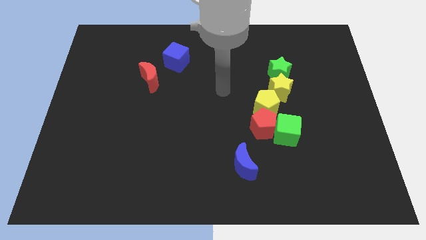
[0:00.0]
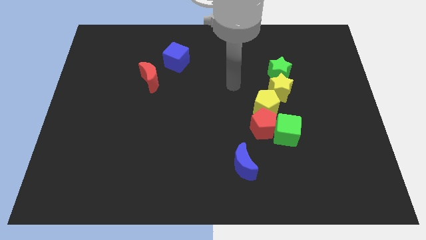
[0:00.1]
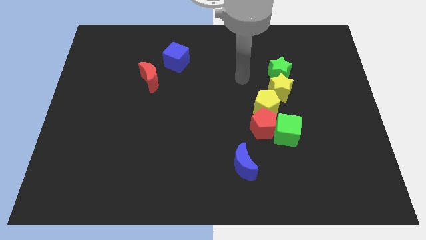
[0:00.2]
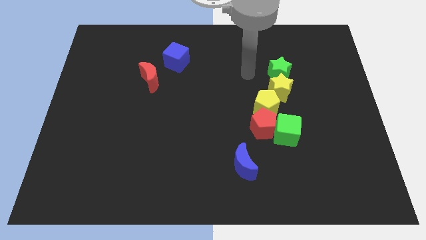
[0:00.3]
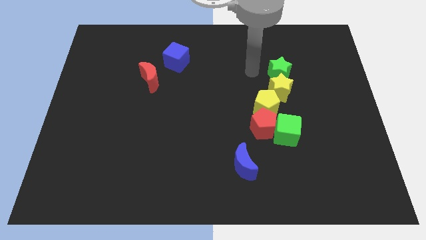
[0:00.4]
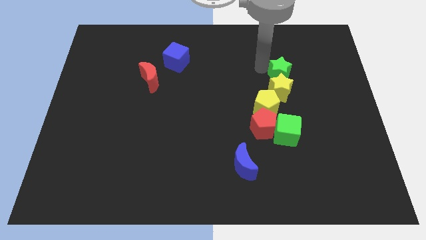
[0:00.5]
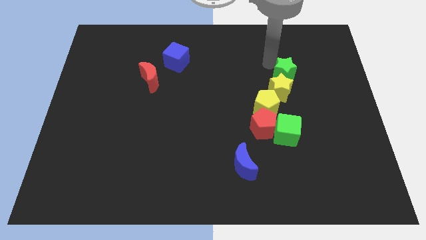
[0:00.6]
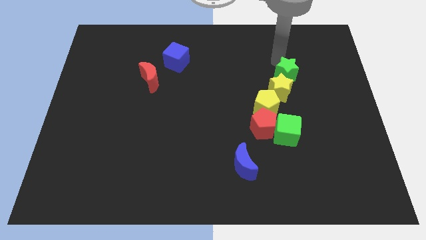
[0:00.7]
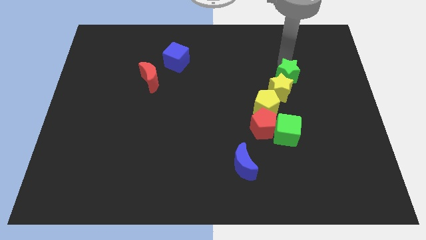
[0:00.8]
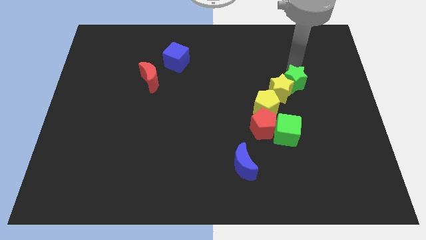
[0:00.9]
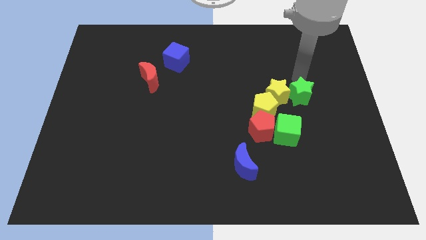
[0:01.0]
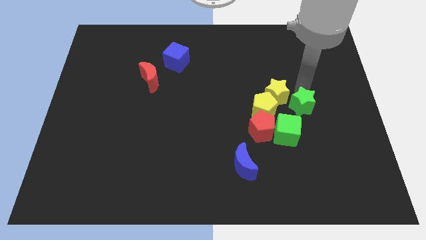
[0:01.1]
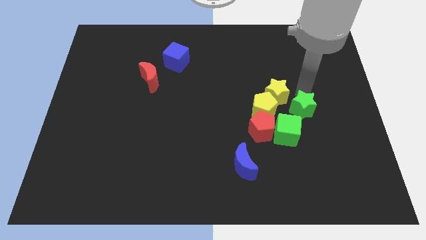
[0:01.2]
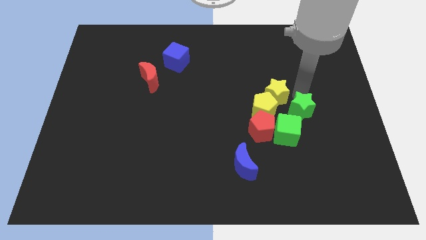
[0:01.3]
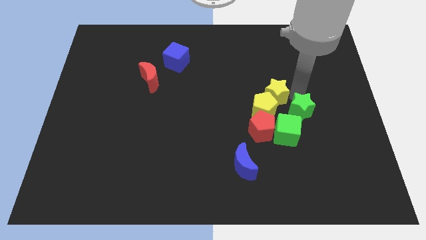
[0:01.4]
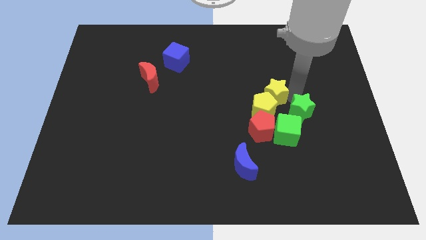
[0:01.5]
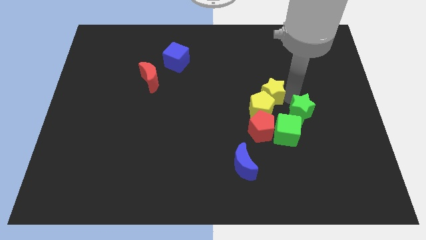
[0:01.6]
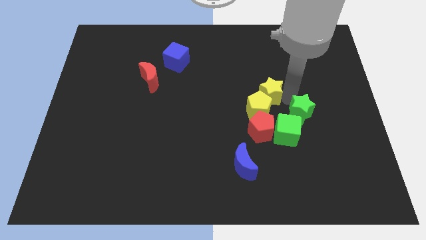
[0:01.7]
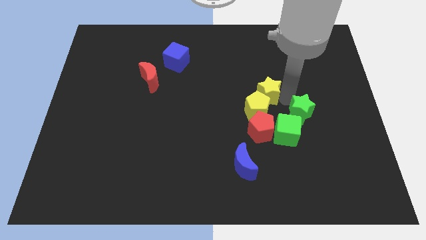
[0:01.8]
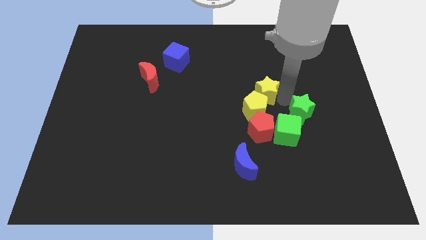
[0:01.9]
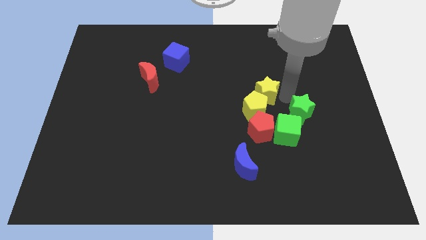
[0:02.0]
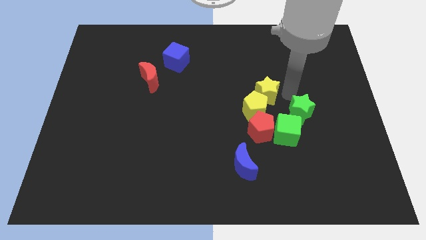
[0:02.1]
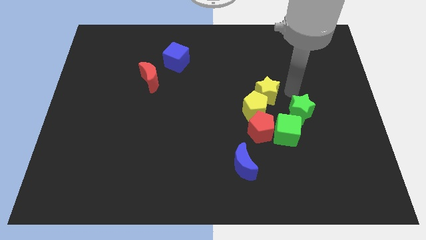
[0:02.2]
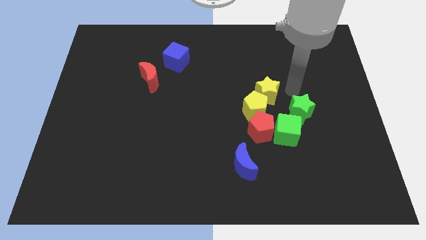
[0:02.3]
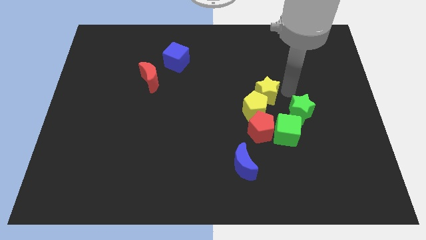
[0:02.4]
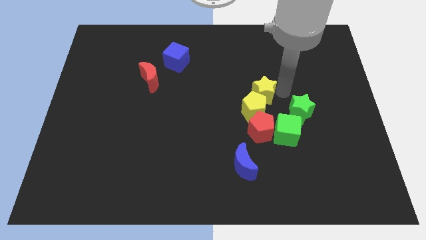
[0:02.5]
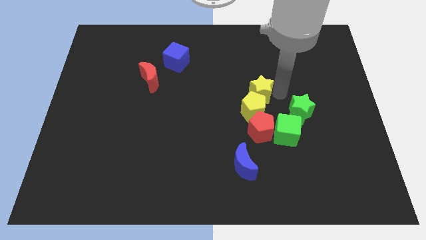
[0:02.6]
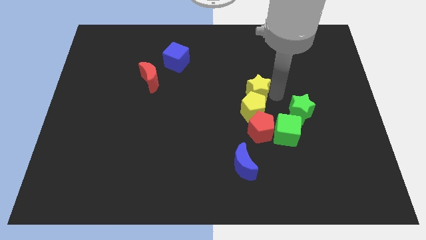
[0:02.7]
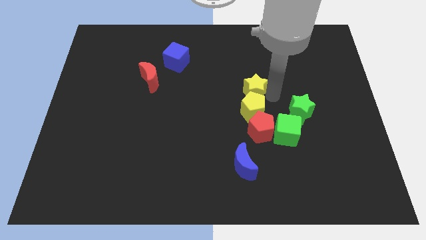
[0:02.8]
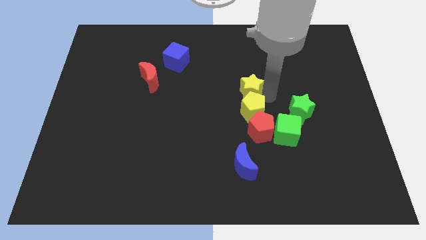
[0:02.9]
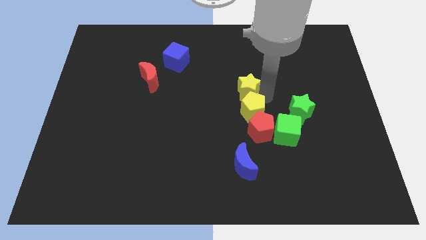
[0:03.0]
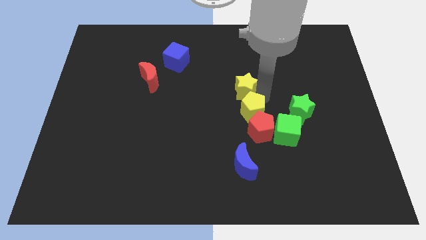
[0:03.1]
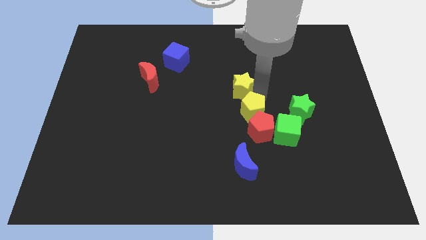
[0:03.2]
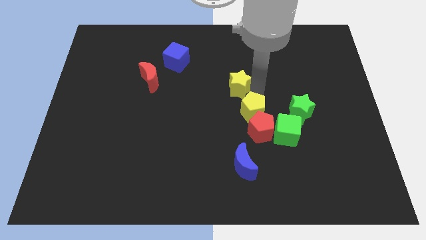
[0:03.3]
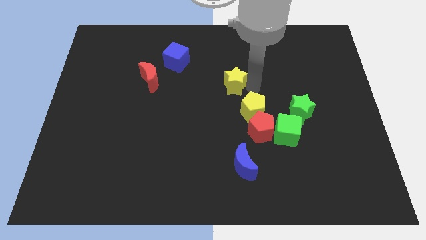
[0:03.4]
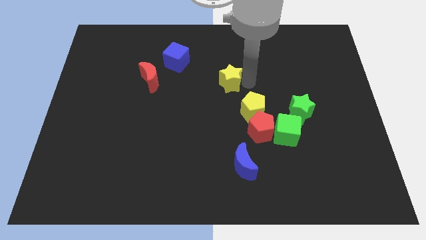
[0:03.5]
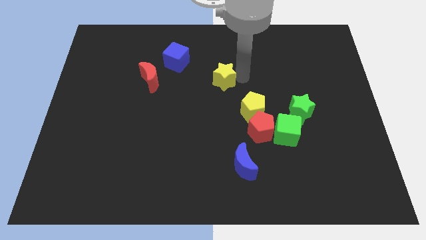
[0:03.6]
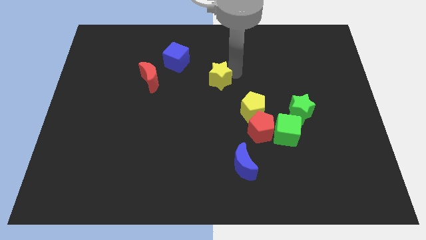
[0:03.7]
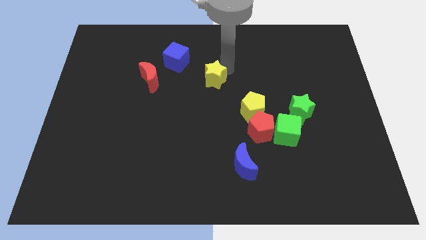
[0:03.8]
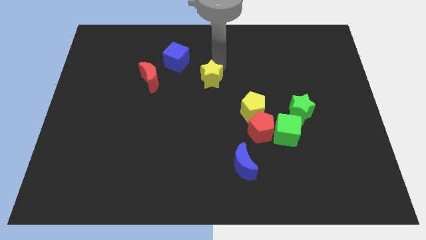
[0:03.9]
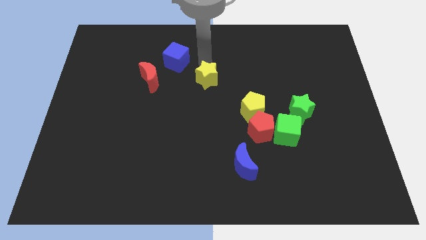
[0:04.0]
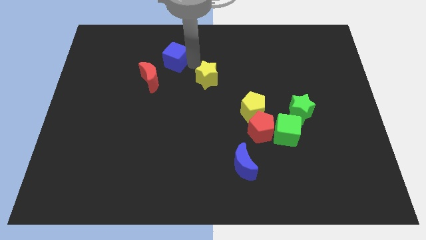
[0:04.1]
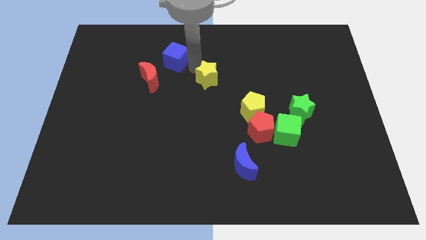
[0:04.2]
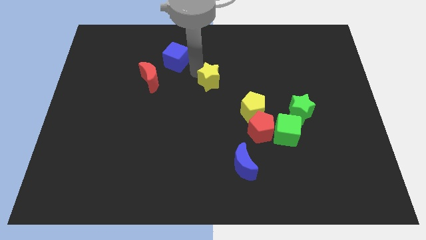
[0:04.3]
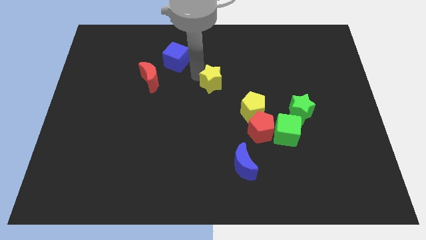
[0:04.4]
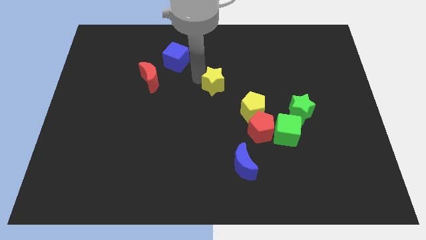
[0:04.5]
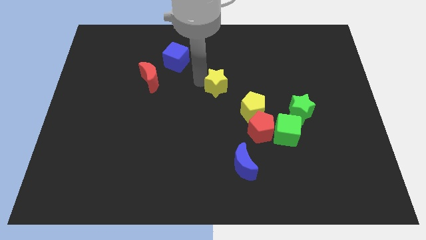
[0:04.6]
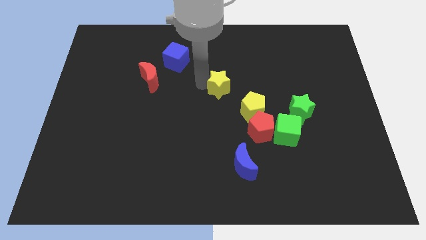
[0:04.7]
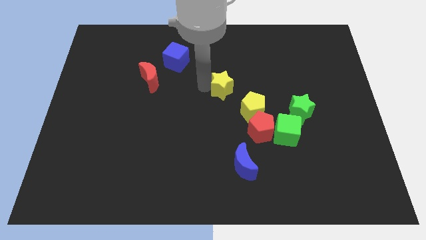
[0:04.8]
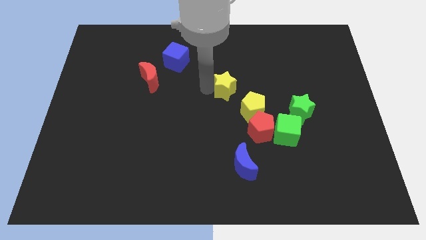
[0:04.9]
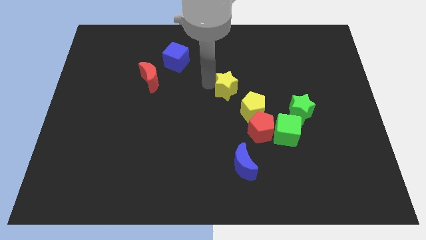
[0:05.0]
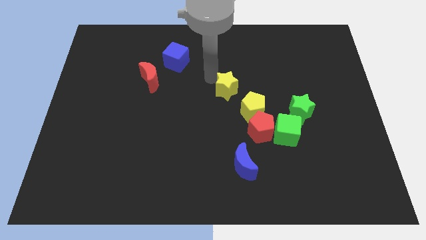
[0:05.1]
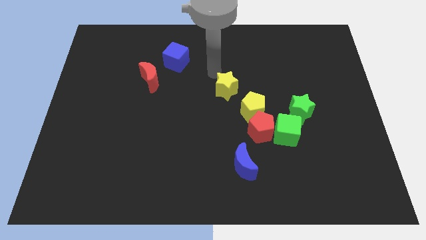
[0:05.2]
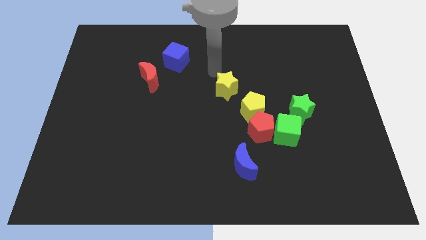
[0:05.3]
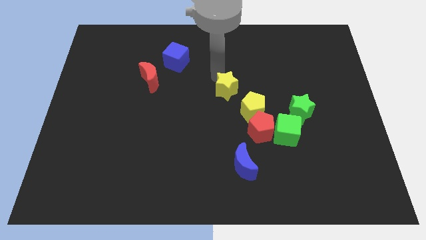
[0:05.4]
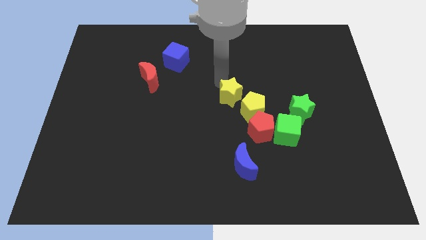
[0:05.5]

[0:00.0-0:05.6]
slide the yellow star diagonally down and left a bit

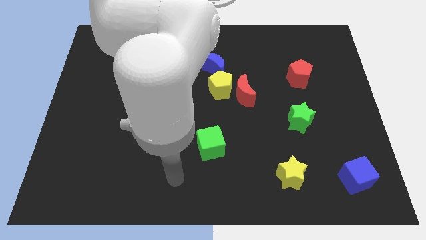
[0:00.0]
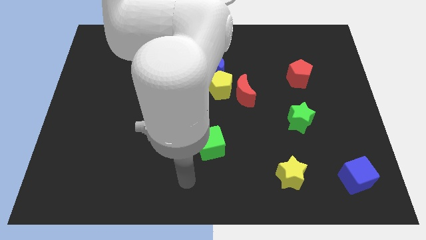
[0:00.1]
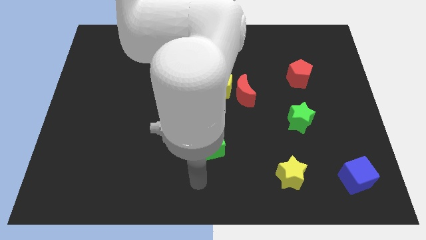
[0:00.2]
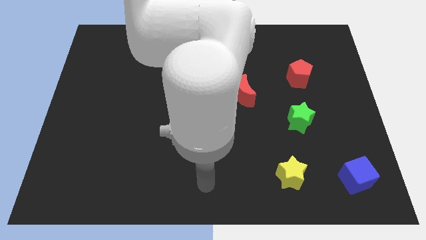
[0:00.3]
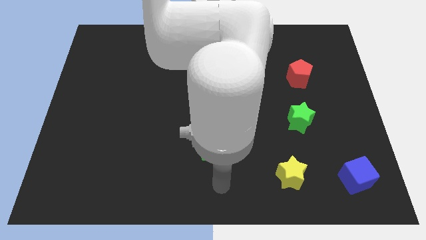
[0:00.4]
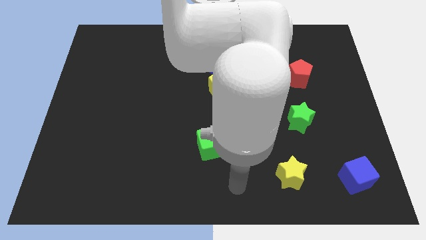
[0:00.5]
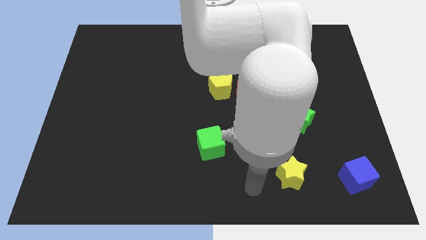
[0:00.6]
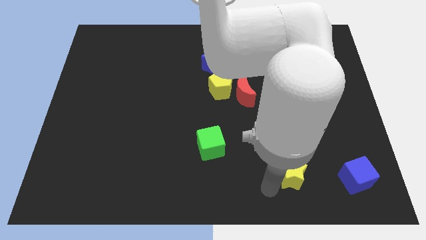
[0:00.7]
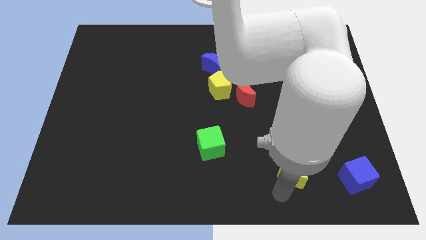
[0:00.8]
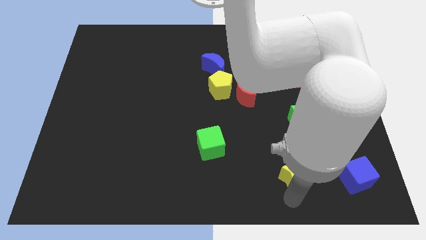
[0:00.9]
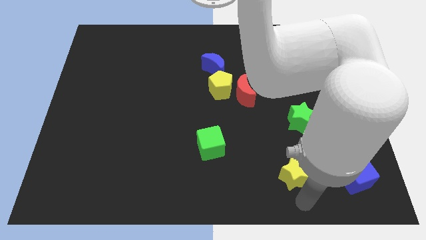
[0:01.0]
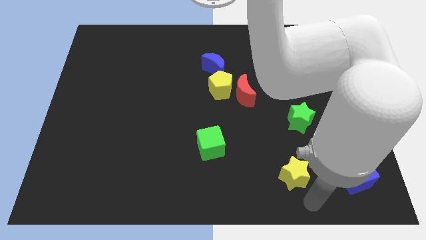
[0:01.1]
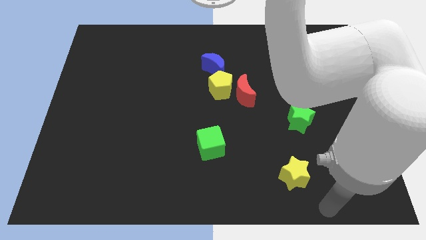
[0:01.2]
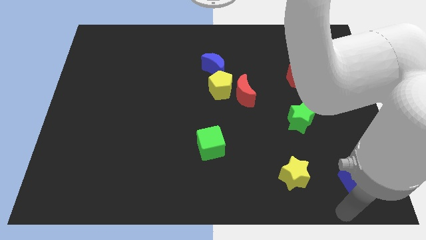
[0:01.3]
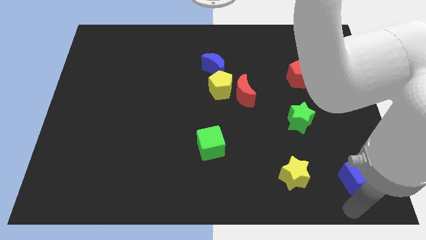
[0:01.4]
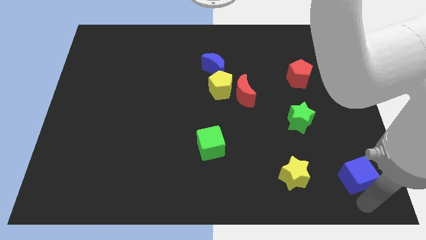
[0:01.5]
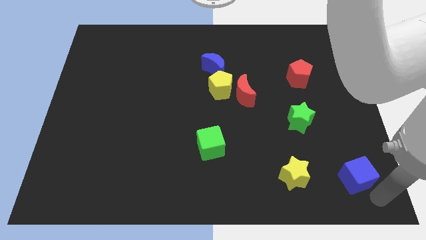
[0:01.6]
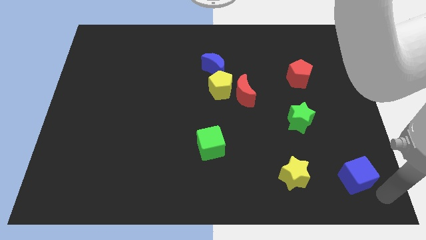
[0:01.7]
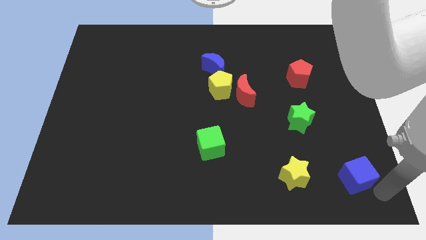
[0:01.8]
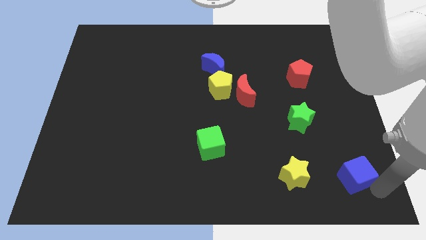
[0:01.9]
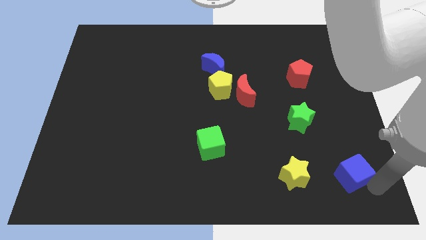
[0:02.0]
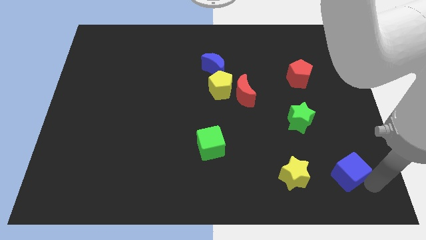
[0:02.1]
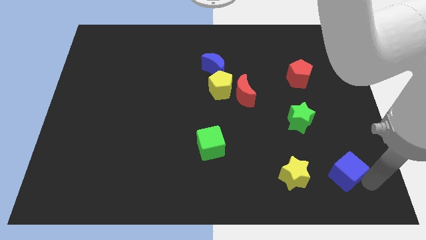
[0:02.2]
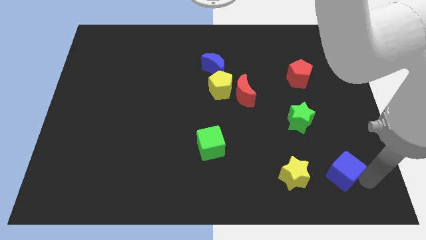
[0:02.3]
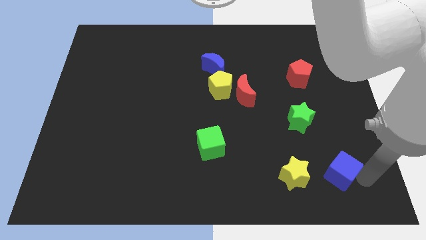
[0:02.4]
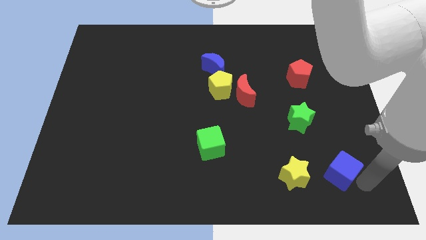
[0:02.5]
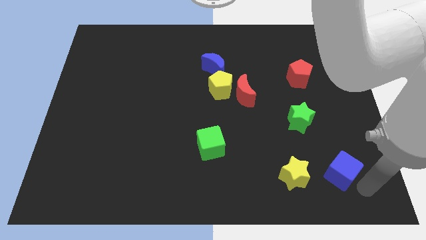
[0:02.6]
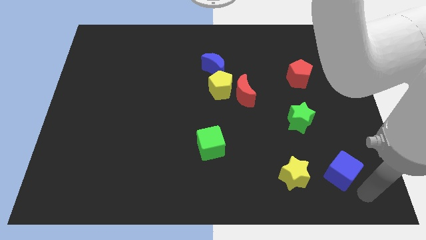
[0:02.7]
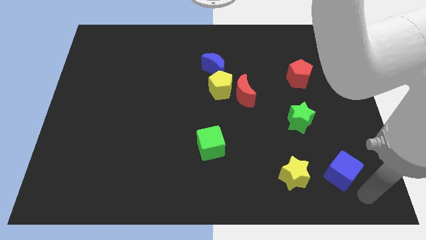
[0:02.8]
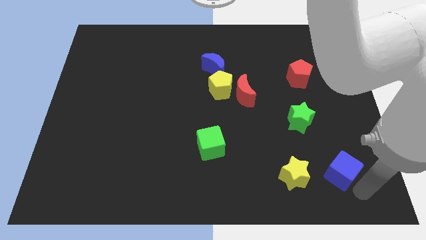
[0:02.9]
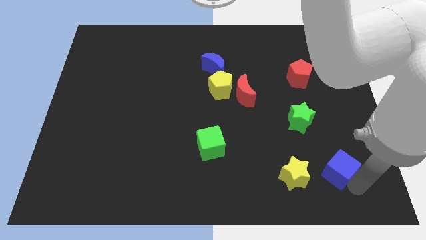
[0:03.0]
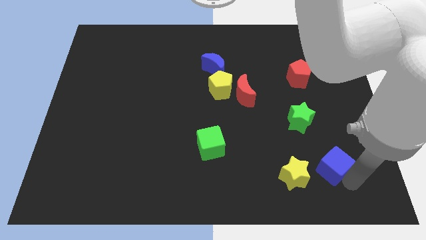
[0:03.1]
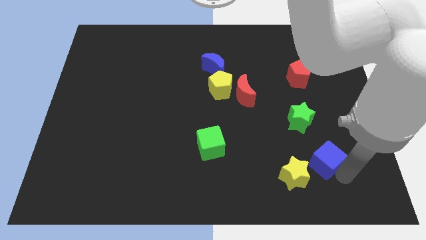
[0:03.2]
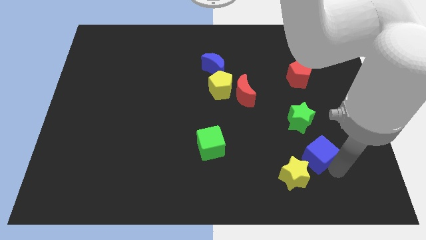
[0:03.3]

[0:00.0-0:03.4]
move the blue cube upwards and to the left a little
